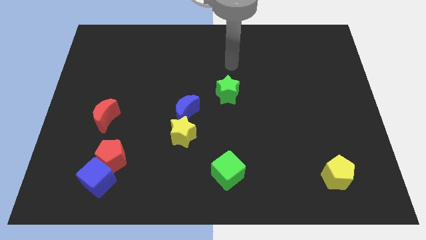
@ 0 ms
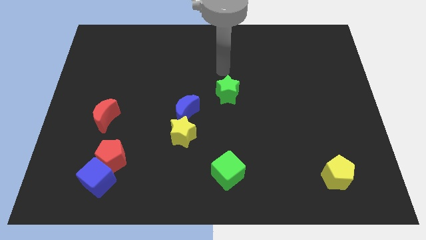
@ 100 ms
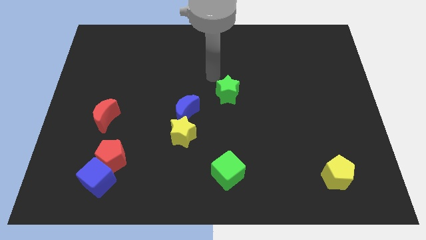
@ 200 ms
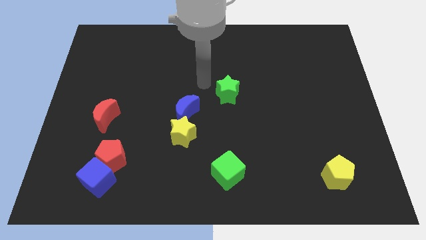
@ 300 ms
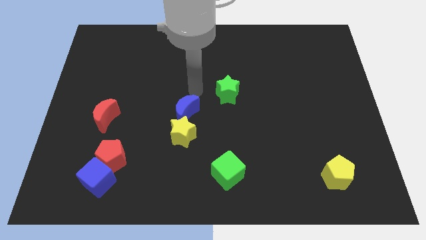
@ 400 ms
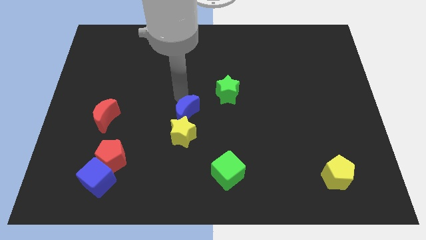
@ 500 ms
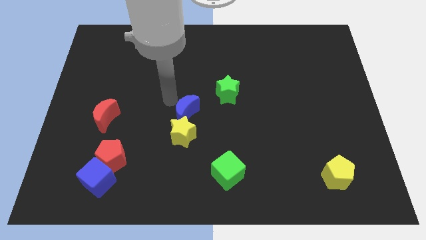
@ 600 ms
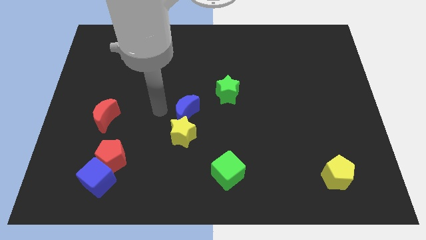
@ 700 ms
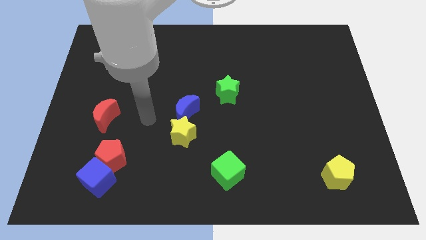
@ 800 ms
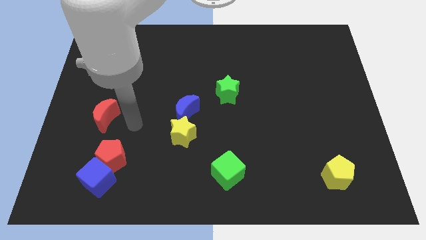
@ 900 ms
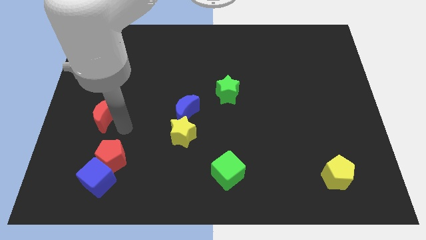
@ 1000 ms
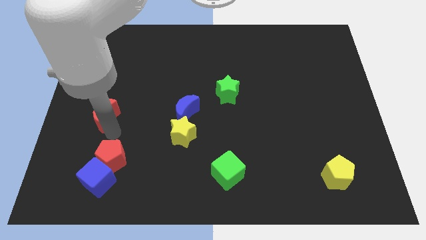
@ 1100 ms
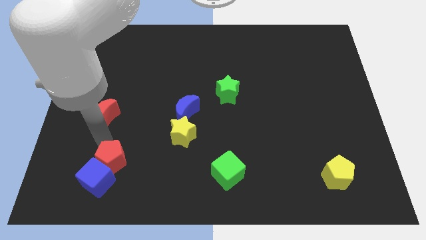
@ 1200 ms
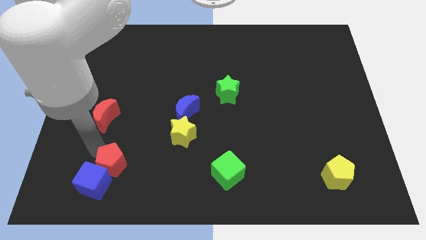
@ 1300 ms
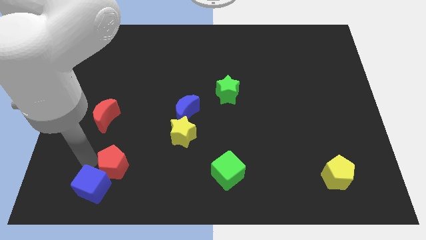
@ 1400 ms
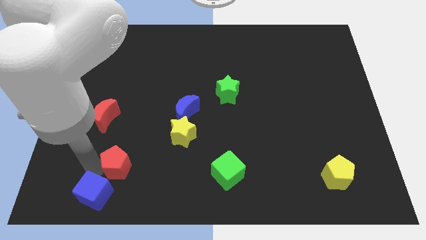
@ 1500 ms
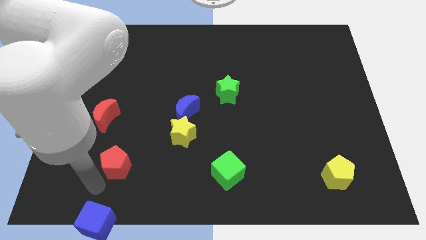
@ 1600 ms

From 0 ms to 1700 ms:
pull the red pentagon apart from the blue cube

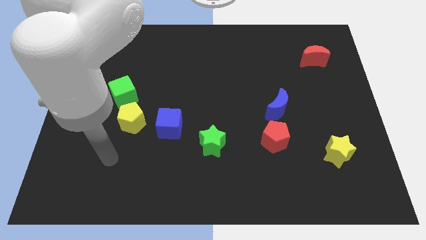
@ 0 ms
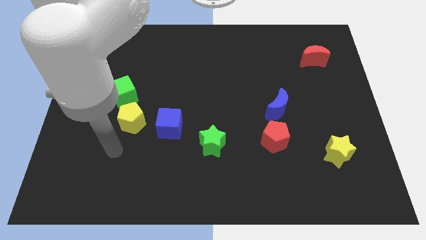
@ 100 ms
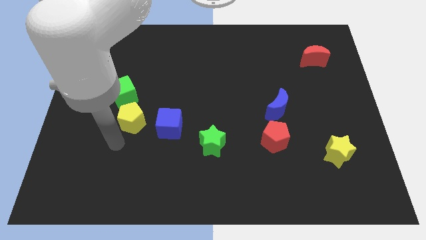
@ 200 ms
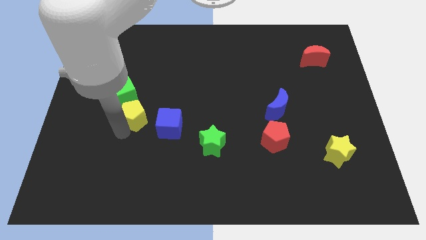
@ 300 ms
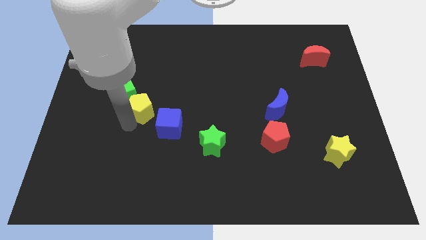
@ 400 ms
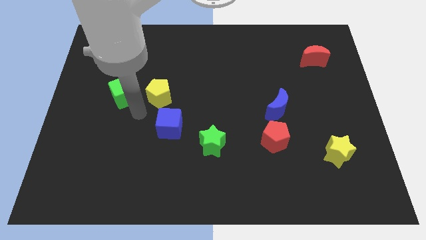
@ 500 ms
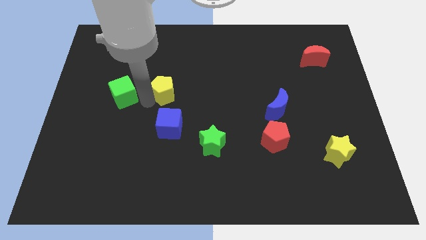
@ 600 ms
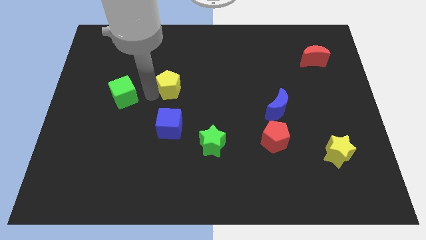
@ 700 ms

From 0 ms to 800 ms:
separate the green cube from the yellow pentagon

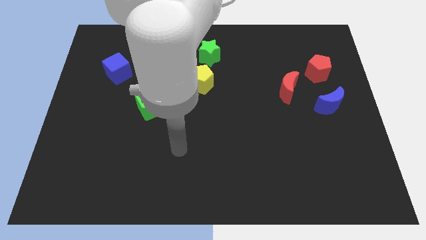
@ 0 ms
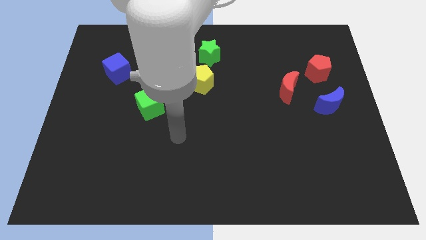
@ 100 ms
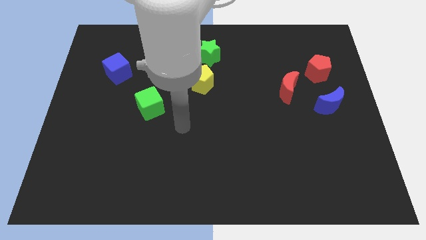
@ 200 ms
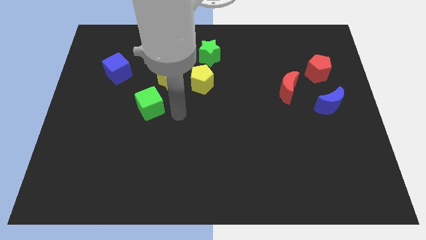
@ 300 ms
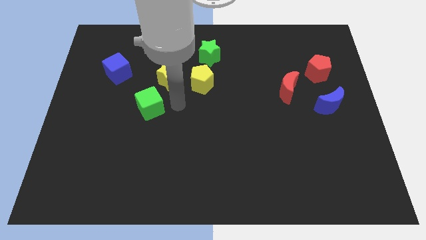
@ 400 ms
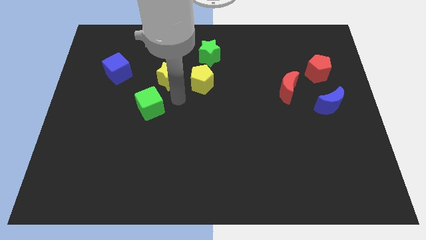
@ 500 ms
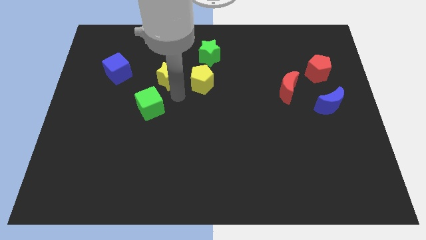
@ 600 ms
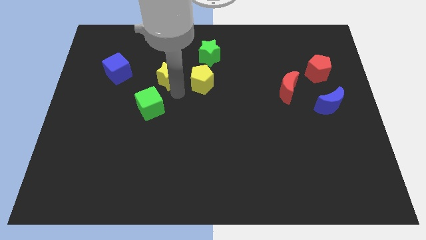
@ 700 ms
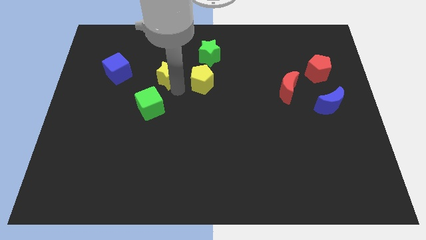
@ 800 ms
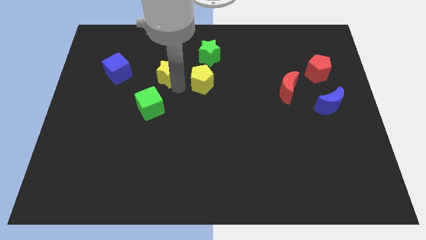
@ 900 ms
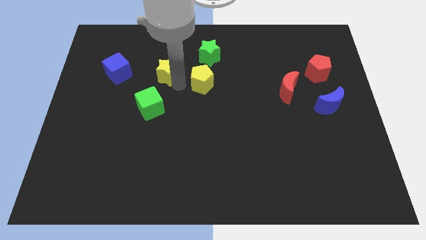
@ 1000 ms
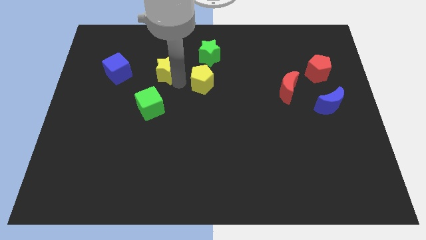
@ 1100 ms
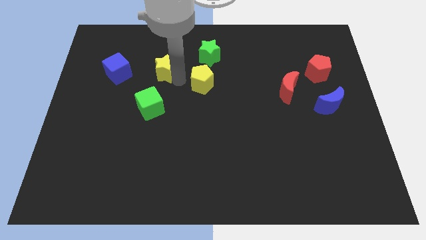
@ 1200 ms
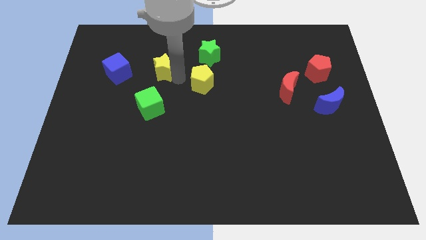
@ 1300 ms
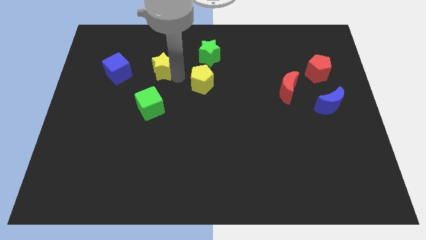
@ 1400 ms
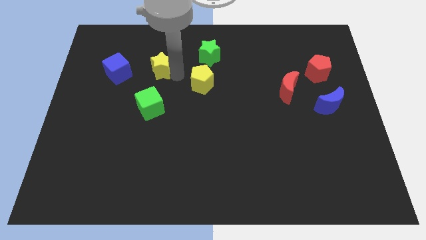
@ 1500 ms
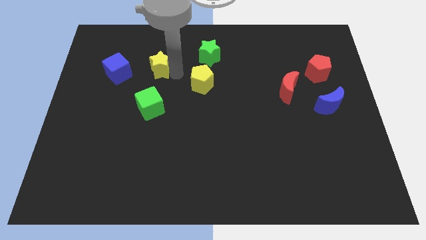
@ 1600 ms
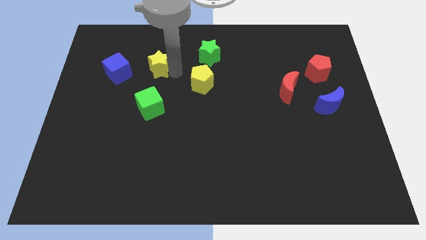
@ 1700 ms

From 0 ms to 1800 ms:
separate the yellow star from the yellow pentagon and green cube

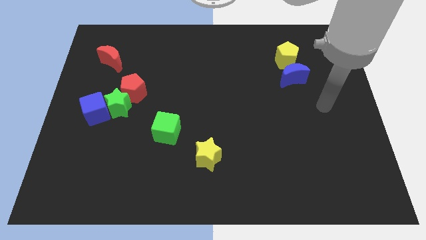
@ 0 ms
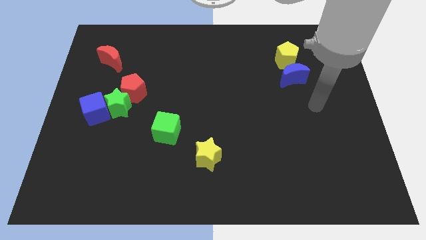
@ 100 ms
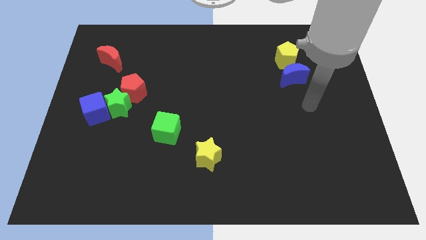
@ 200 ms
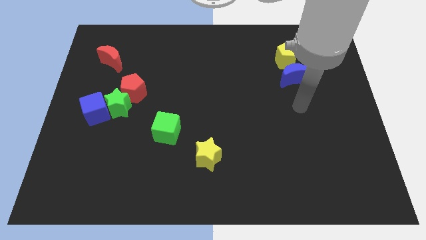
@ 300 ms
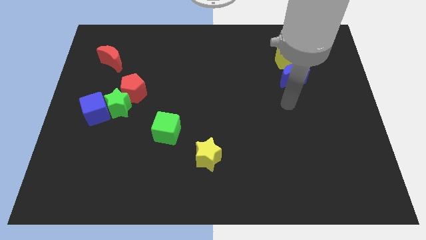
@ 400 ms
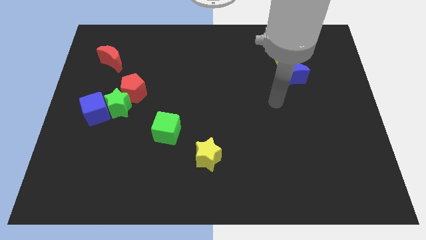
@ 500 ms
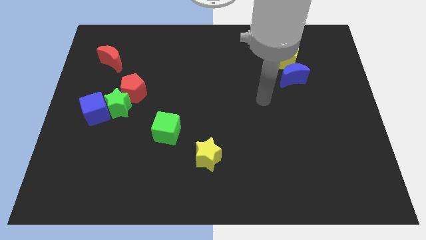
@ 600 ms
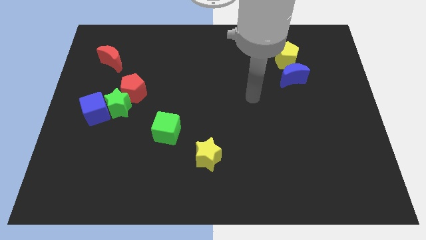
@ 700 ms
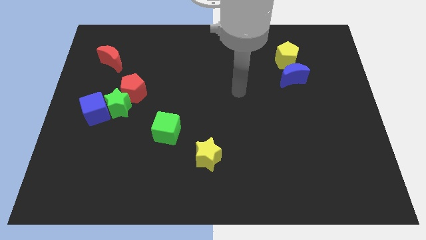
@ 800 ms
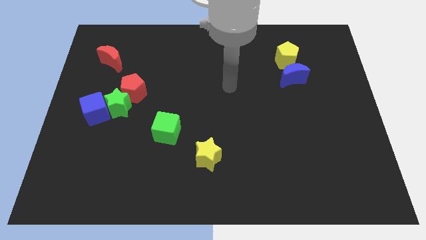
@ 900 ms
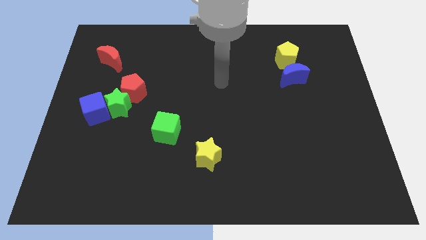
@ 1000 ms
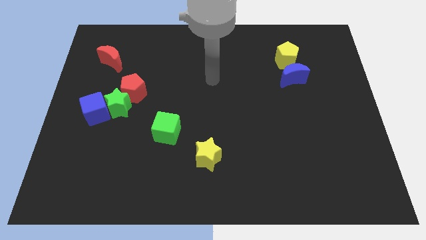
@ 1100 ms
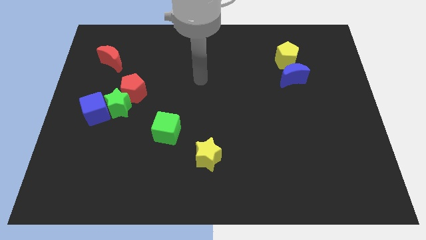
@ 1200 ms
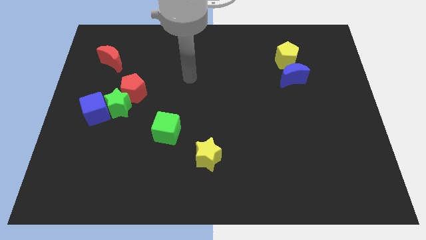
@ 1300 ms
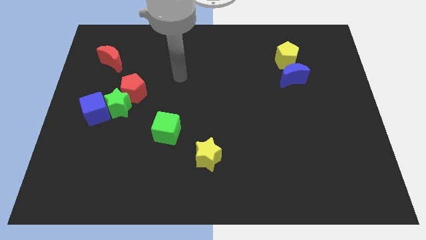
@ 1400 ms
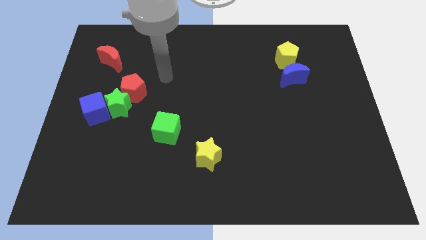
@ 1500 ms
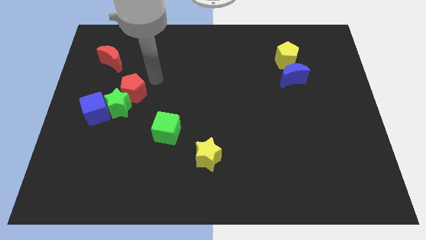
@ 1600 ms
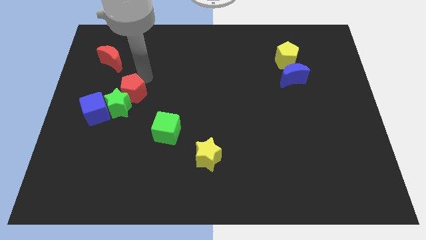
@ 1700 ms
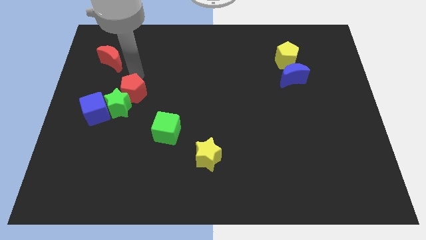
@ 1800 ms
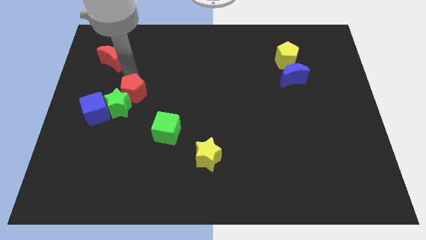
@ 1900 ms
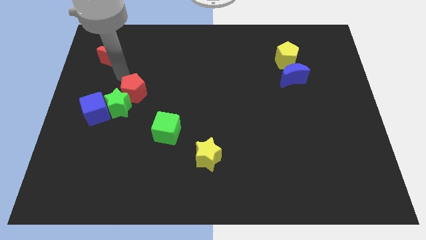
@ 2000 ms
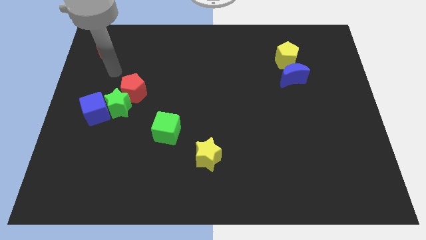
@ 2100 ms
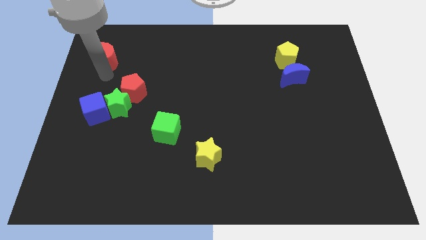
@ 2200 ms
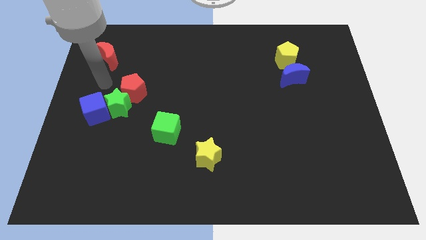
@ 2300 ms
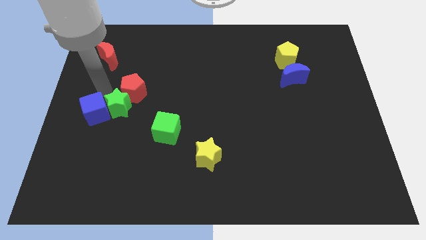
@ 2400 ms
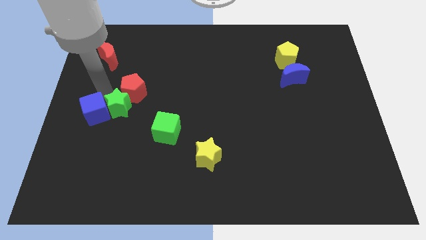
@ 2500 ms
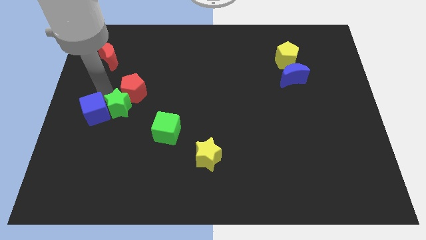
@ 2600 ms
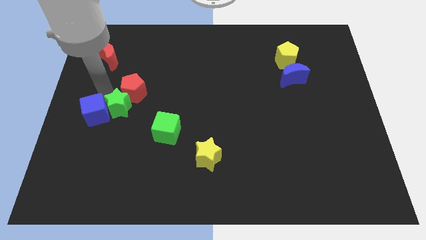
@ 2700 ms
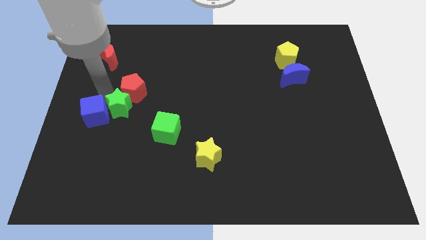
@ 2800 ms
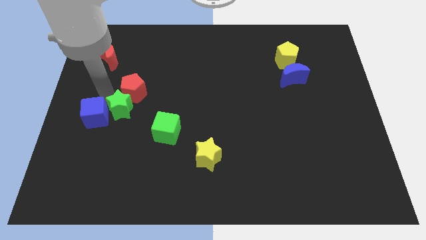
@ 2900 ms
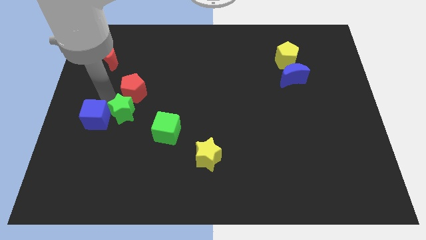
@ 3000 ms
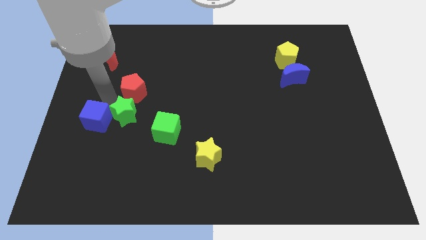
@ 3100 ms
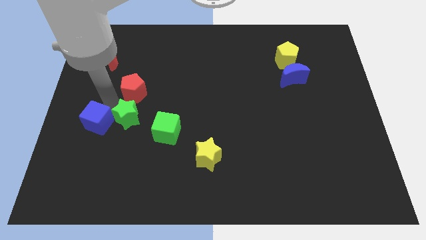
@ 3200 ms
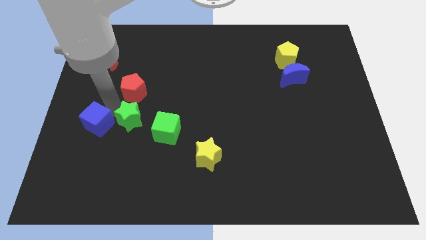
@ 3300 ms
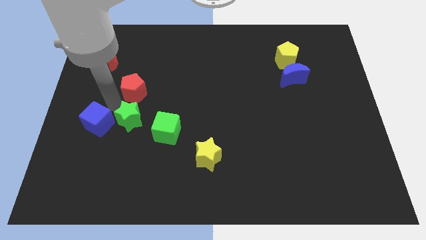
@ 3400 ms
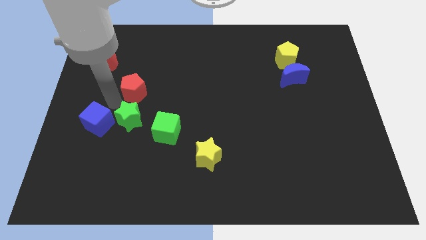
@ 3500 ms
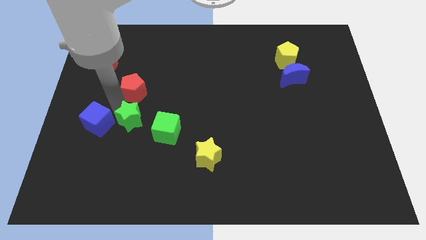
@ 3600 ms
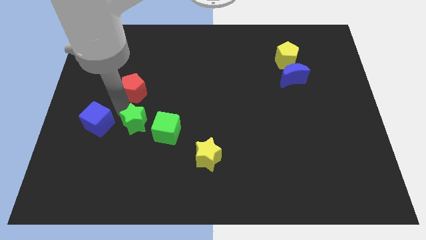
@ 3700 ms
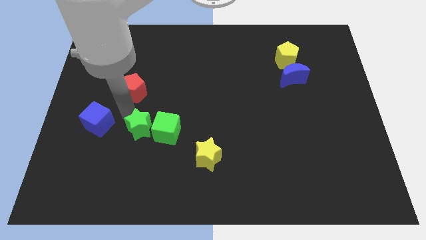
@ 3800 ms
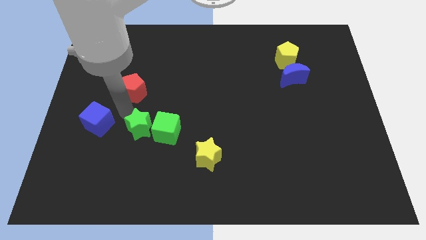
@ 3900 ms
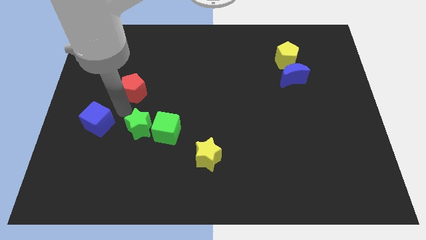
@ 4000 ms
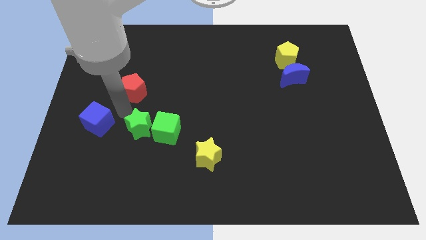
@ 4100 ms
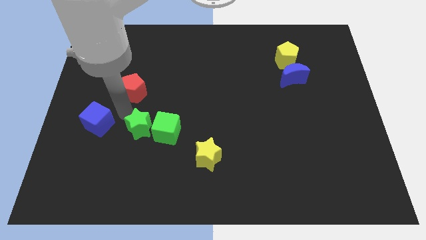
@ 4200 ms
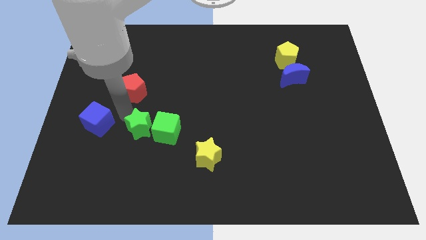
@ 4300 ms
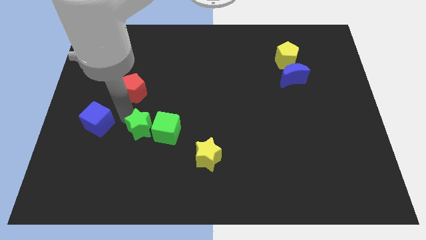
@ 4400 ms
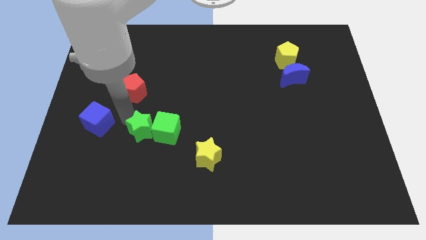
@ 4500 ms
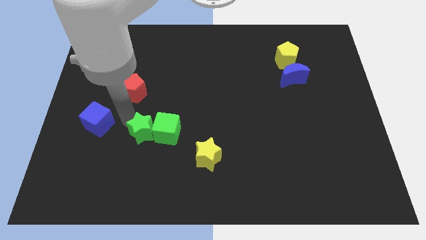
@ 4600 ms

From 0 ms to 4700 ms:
separate the green star from the red pentagon and blue cube

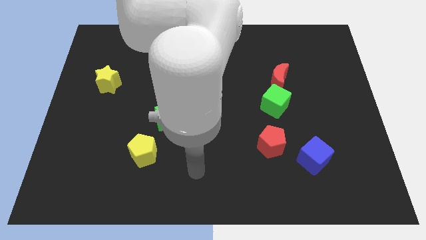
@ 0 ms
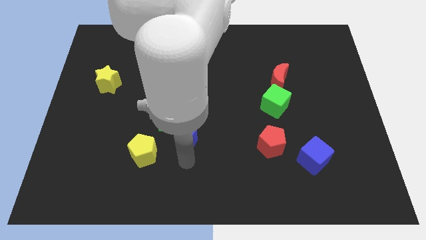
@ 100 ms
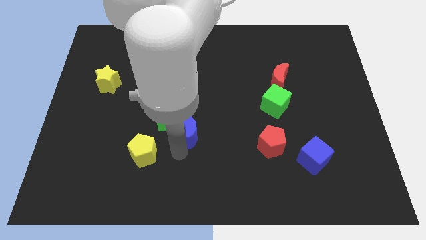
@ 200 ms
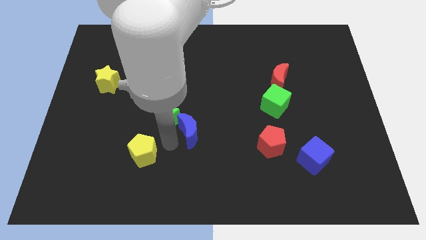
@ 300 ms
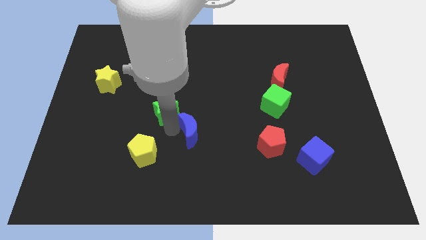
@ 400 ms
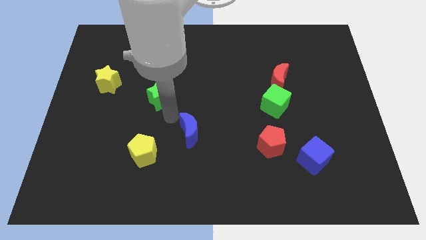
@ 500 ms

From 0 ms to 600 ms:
separate the blue moon from the green star
